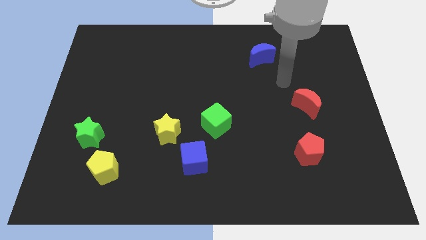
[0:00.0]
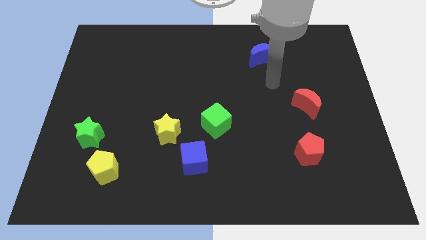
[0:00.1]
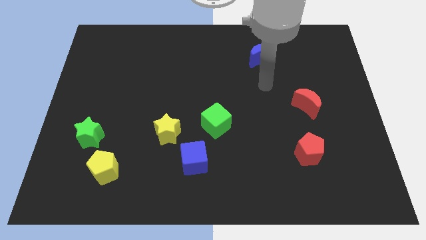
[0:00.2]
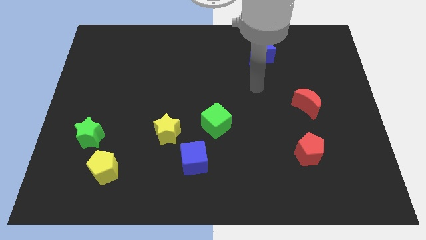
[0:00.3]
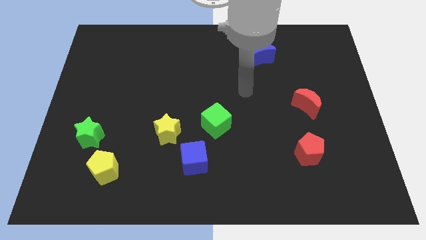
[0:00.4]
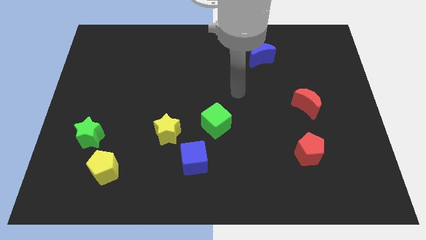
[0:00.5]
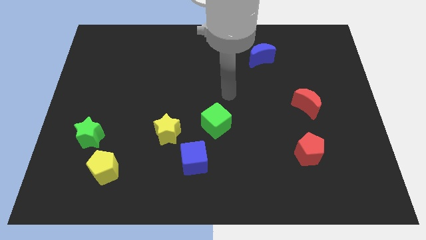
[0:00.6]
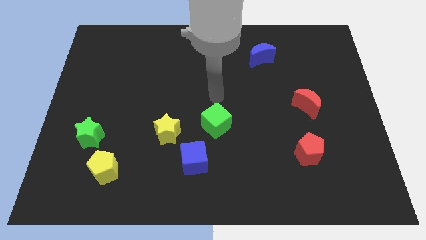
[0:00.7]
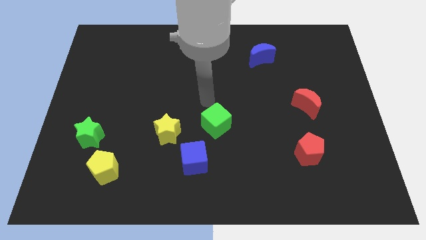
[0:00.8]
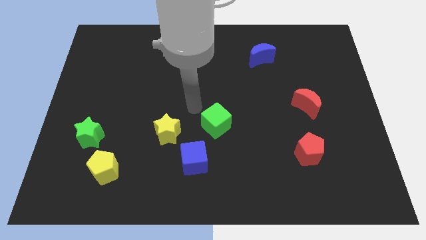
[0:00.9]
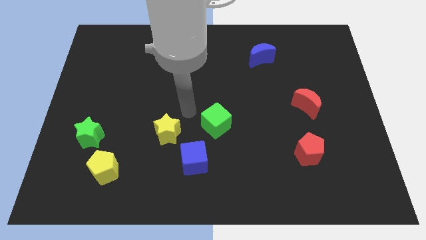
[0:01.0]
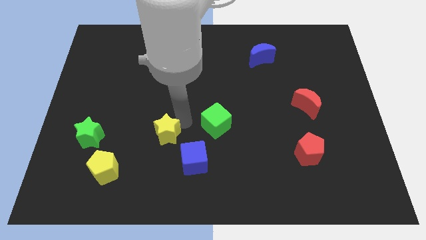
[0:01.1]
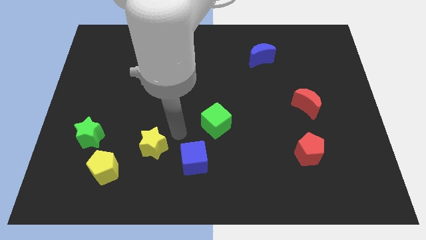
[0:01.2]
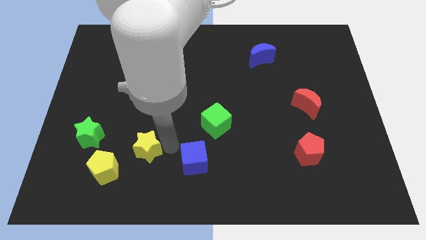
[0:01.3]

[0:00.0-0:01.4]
move the blue cube away from the yellow star

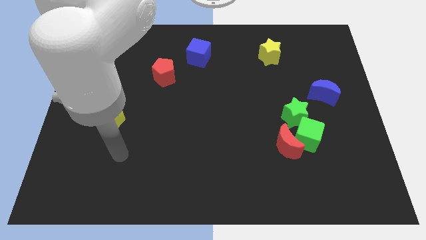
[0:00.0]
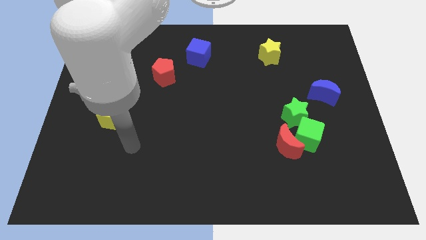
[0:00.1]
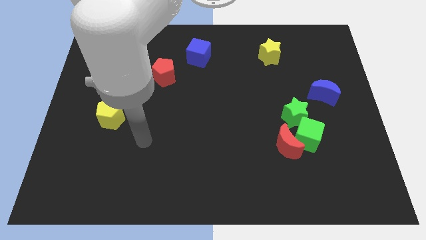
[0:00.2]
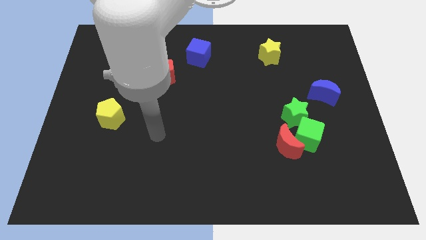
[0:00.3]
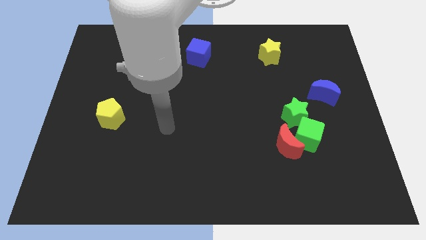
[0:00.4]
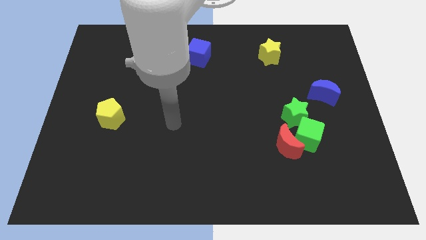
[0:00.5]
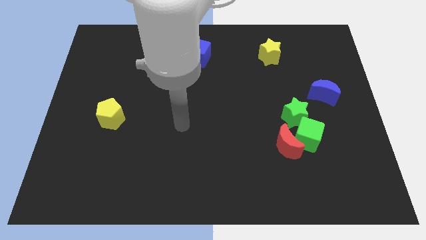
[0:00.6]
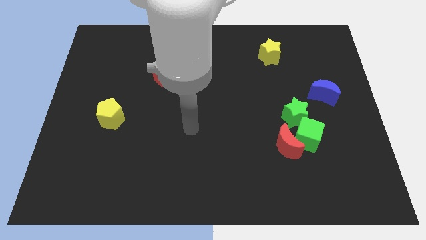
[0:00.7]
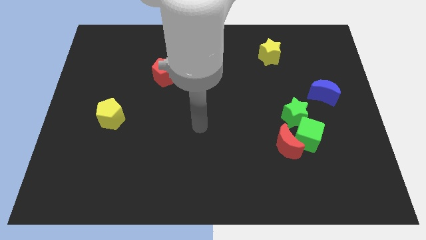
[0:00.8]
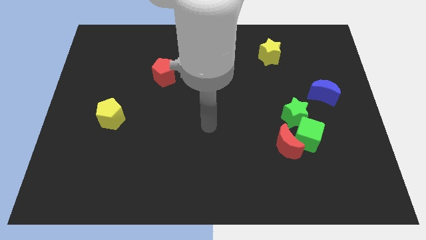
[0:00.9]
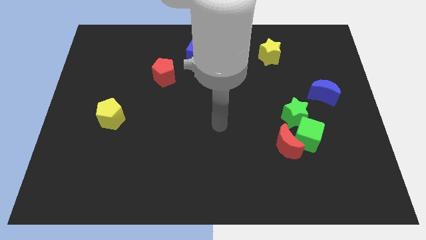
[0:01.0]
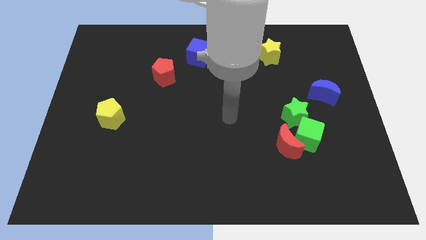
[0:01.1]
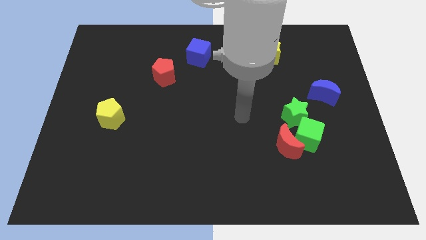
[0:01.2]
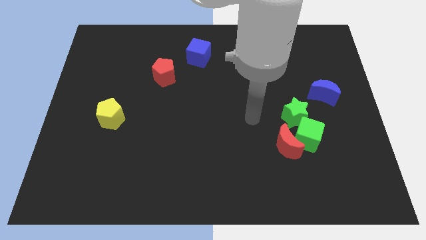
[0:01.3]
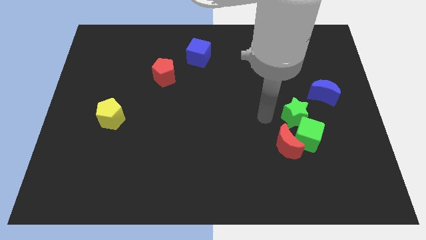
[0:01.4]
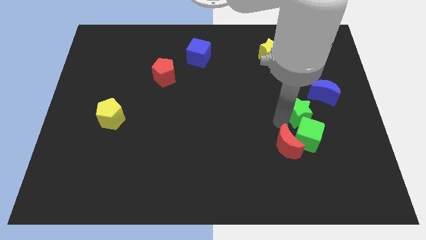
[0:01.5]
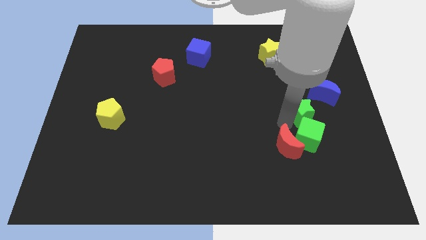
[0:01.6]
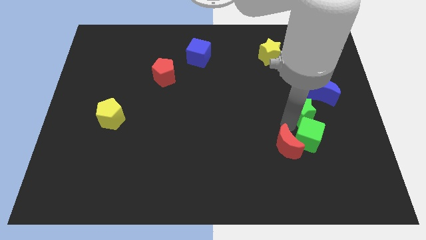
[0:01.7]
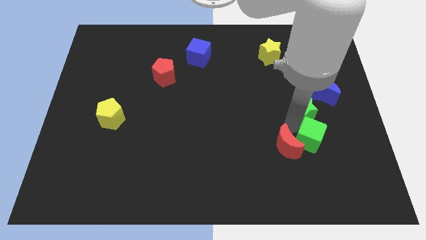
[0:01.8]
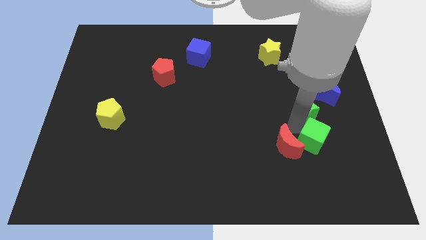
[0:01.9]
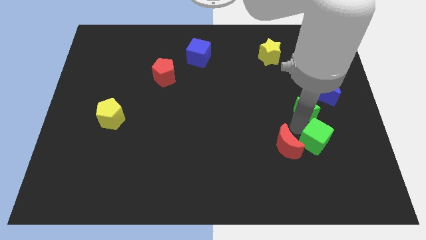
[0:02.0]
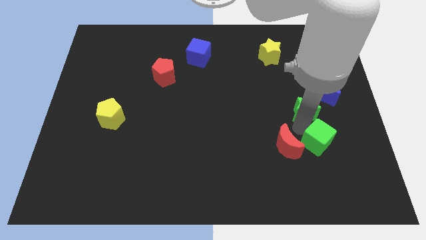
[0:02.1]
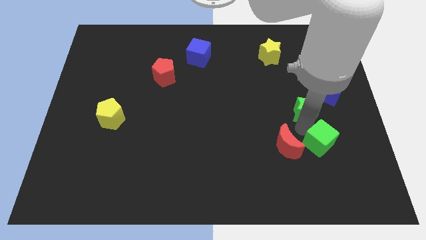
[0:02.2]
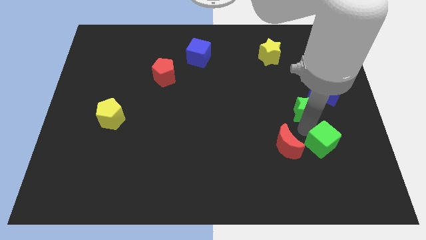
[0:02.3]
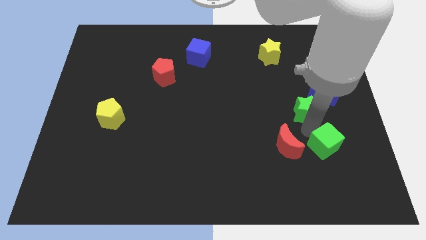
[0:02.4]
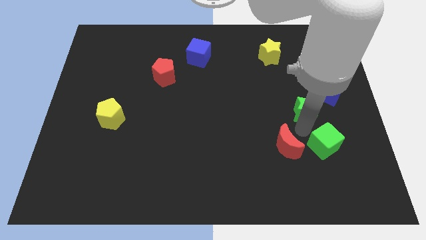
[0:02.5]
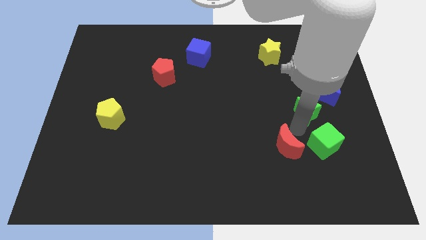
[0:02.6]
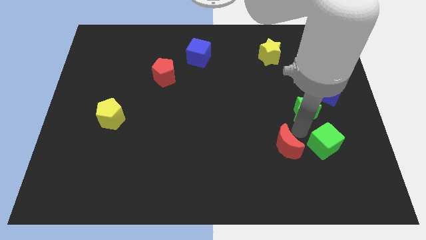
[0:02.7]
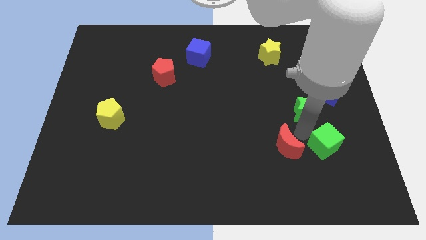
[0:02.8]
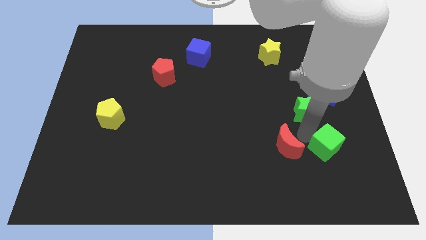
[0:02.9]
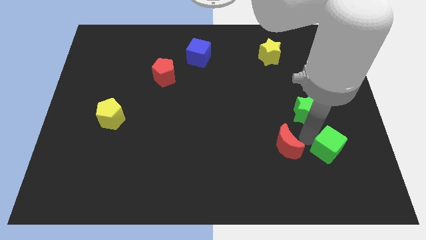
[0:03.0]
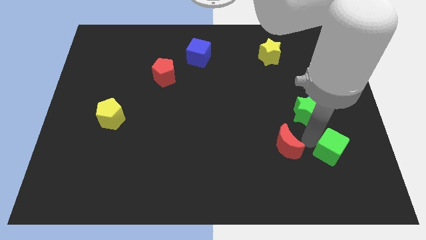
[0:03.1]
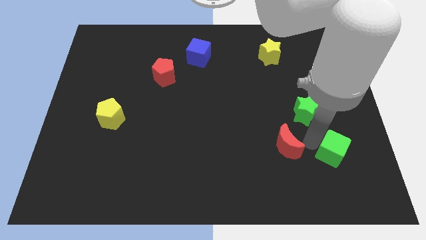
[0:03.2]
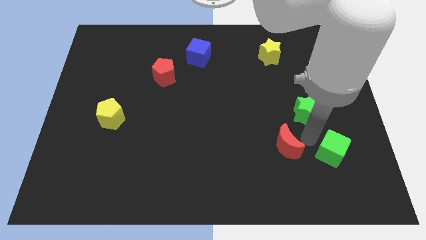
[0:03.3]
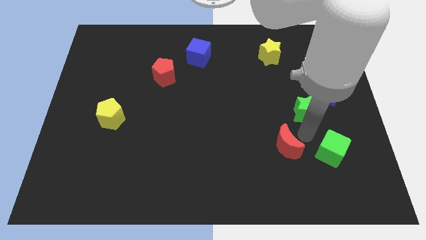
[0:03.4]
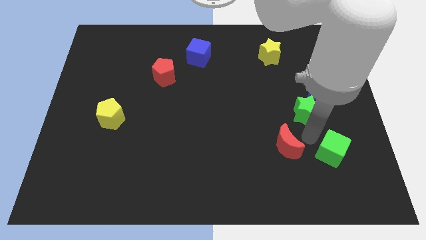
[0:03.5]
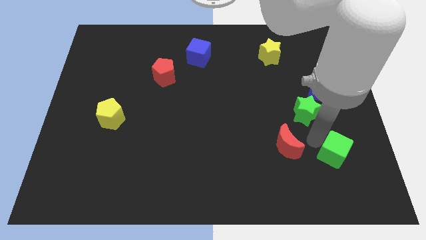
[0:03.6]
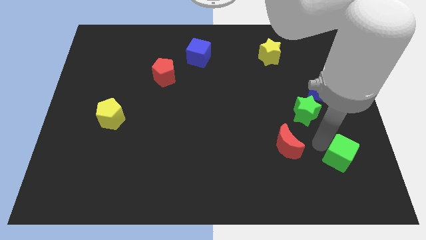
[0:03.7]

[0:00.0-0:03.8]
separate the green cube from the red moon and green star

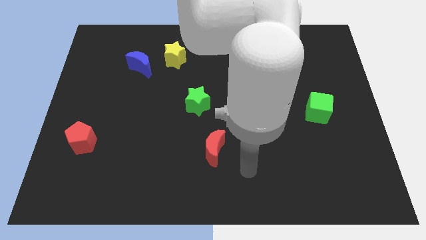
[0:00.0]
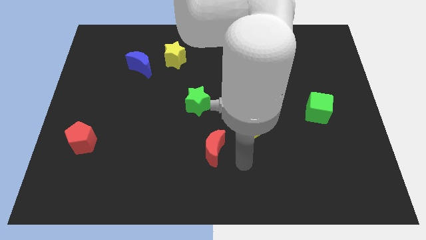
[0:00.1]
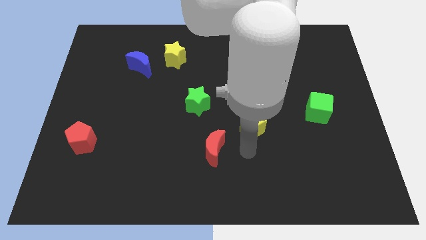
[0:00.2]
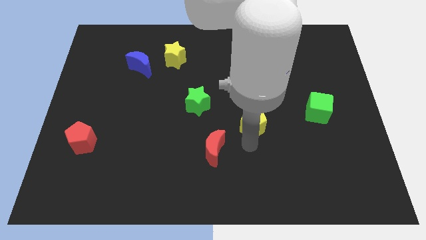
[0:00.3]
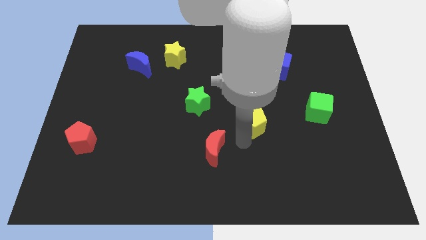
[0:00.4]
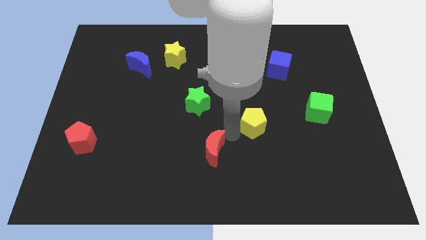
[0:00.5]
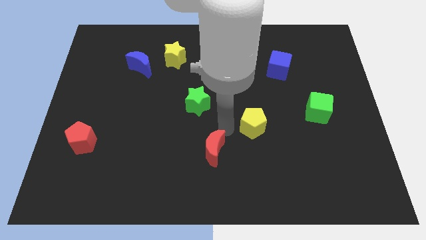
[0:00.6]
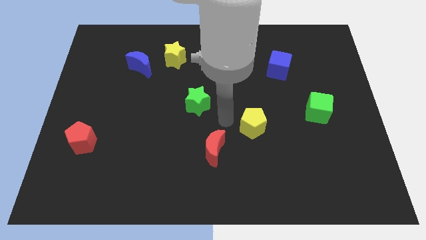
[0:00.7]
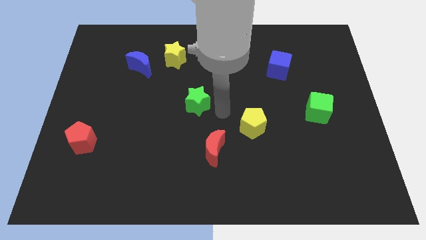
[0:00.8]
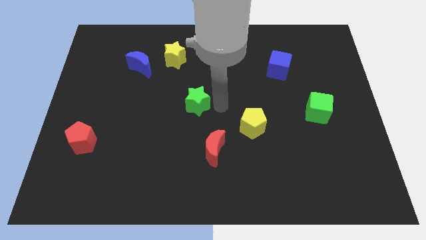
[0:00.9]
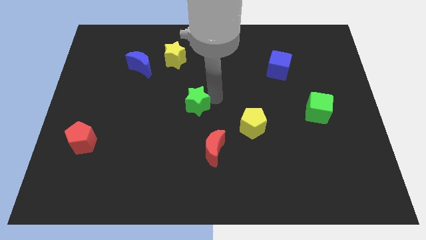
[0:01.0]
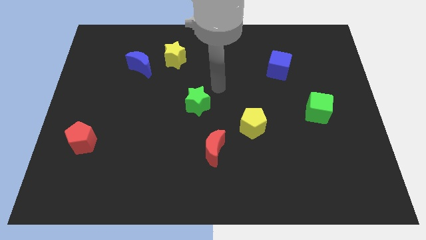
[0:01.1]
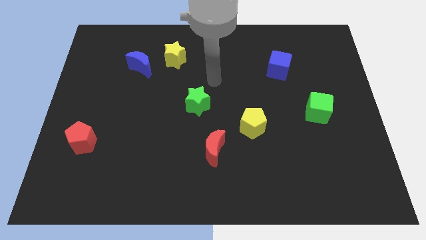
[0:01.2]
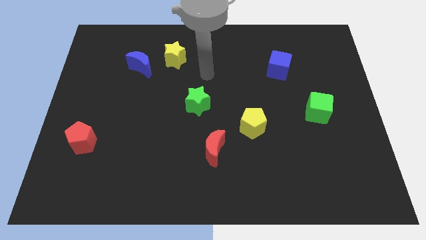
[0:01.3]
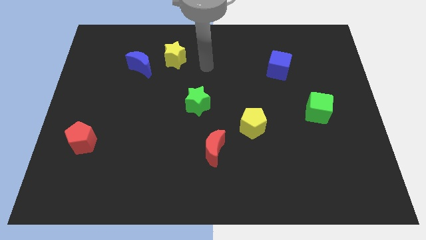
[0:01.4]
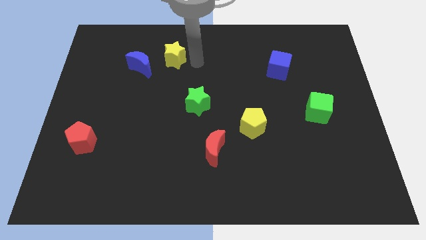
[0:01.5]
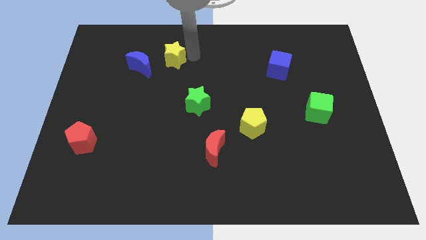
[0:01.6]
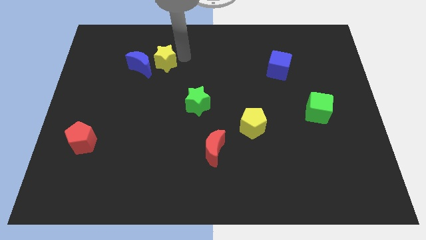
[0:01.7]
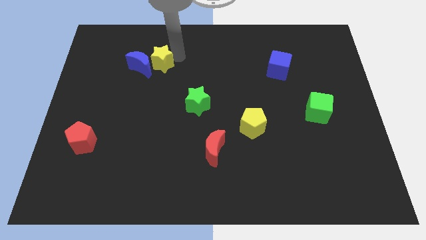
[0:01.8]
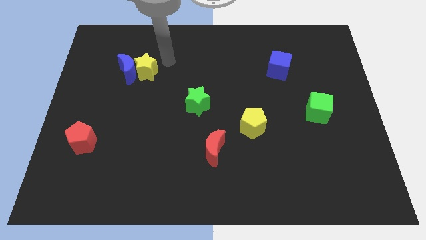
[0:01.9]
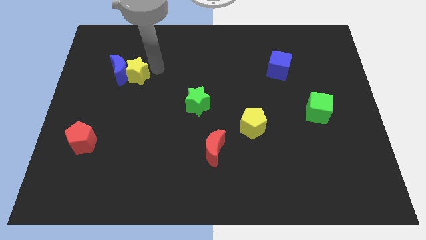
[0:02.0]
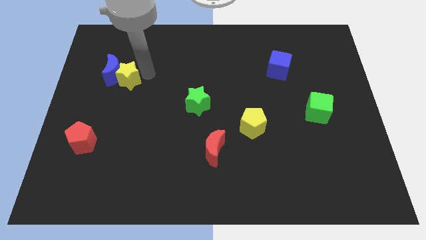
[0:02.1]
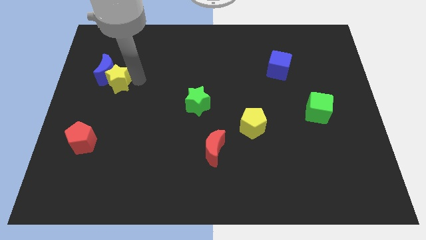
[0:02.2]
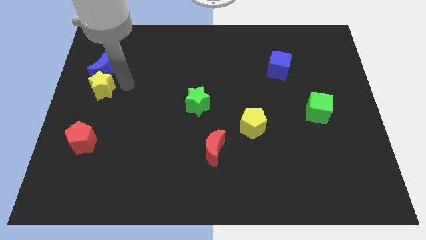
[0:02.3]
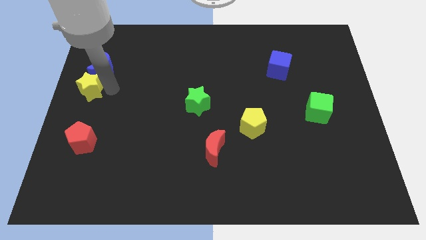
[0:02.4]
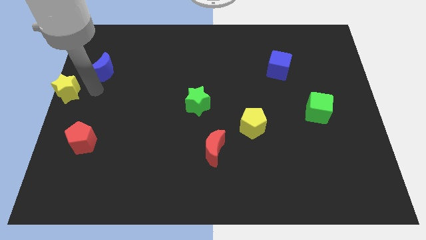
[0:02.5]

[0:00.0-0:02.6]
move the blue moon away from the yellow star

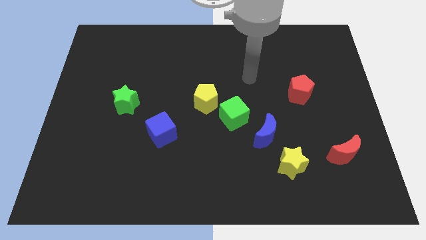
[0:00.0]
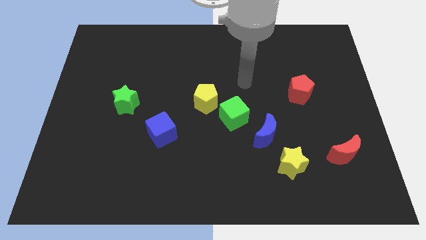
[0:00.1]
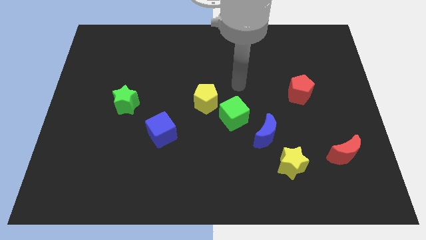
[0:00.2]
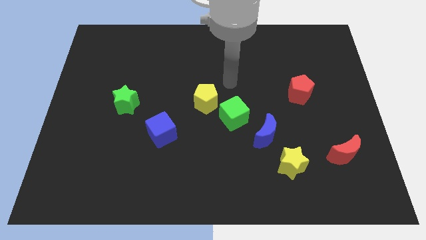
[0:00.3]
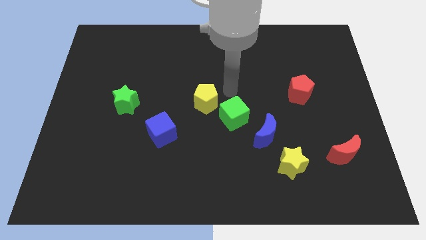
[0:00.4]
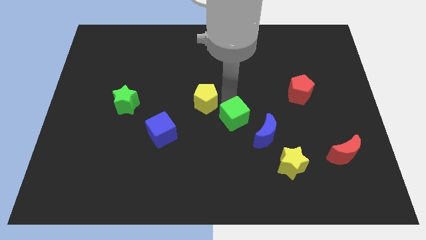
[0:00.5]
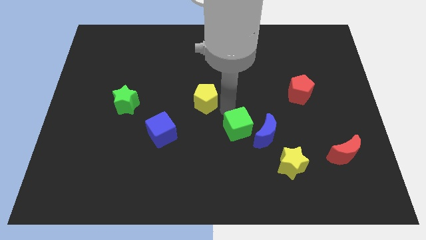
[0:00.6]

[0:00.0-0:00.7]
pull the yellow pentagon apart from the green cube

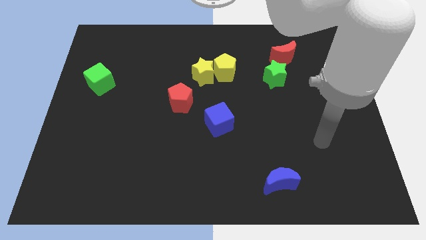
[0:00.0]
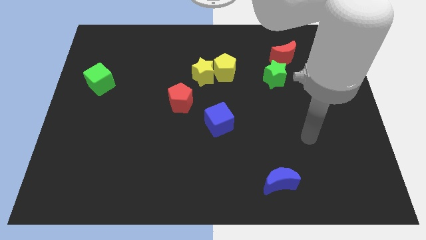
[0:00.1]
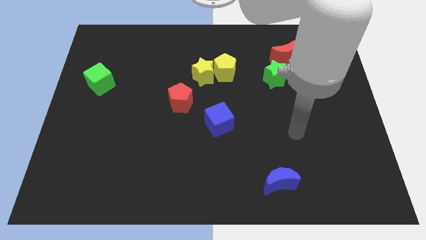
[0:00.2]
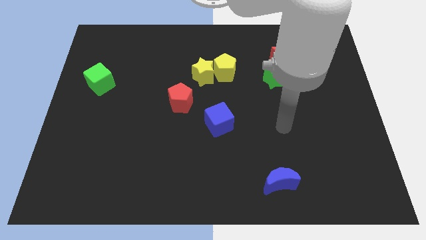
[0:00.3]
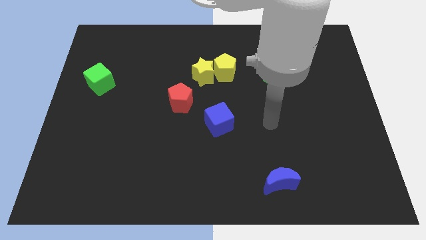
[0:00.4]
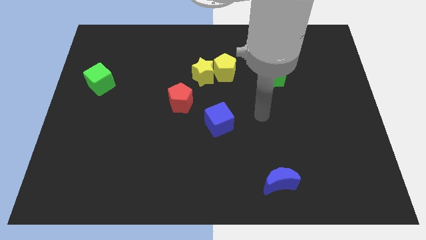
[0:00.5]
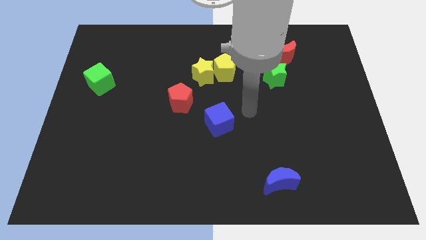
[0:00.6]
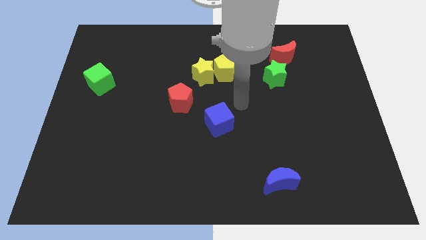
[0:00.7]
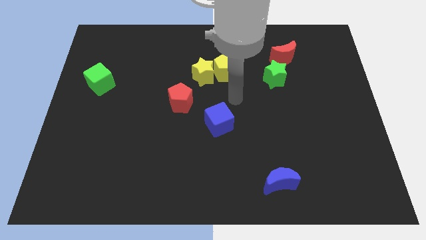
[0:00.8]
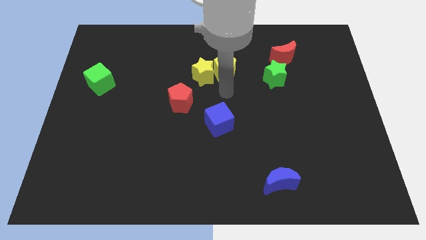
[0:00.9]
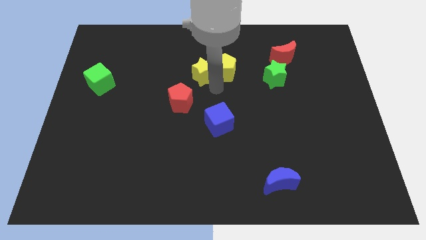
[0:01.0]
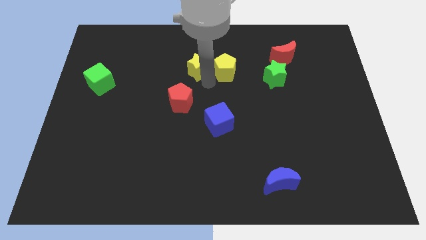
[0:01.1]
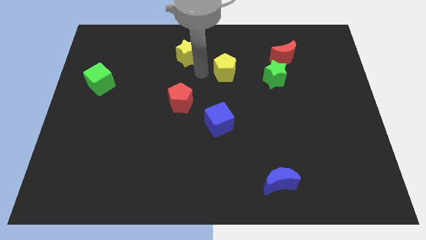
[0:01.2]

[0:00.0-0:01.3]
move the yellow pentagon away from the yellow star
